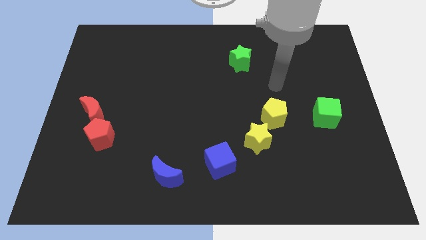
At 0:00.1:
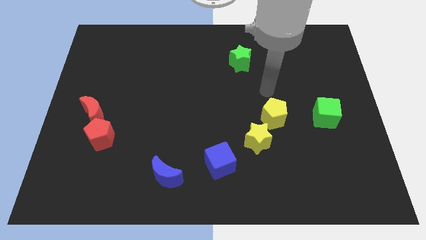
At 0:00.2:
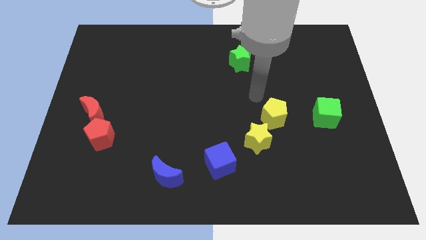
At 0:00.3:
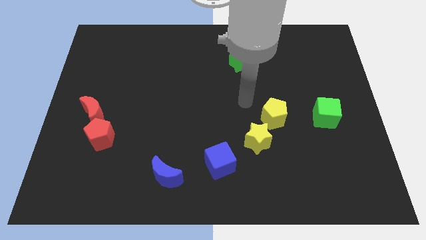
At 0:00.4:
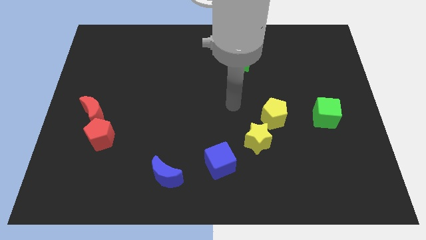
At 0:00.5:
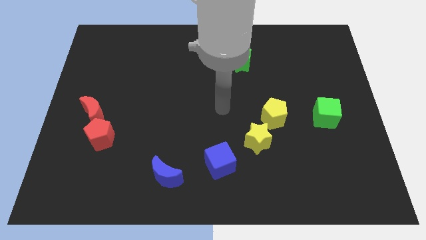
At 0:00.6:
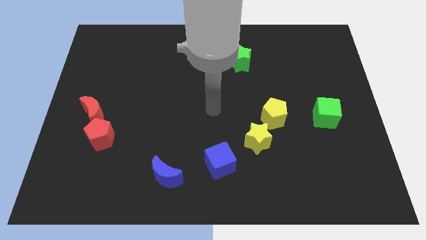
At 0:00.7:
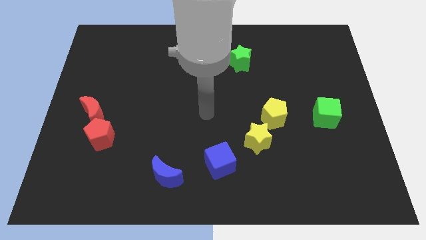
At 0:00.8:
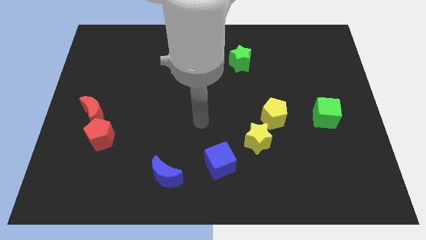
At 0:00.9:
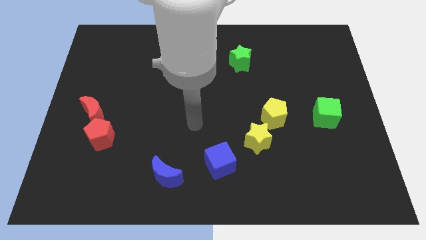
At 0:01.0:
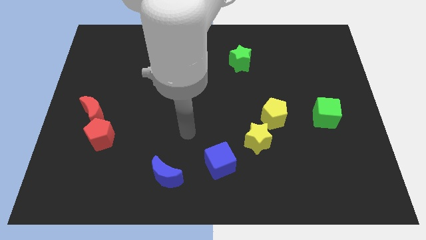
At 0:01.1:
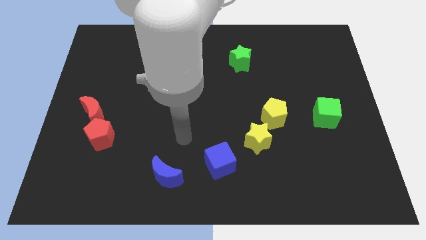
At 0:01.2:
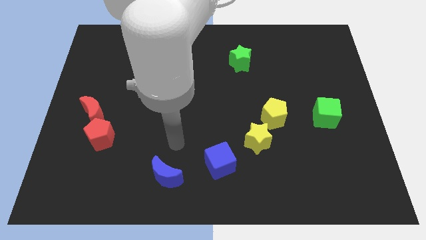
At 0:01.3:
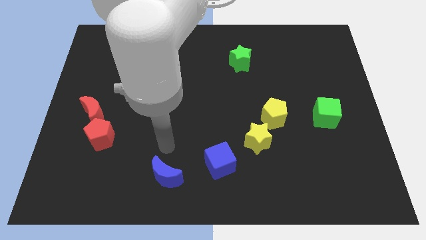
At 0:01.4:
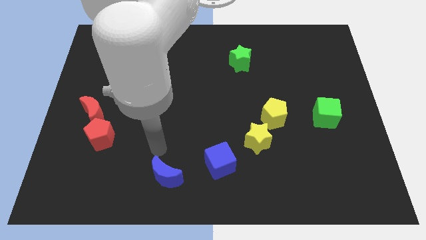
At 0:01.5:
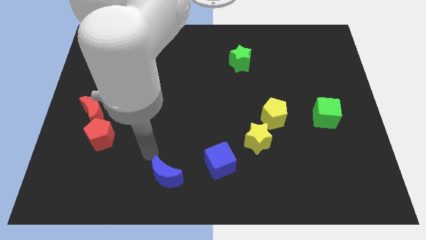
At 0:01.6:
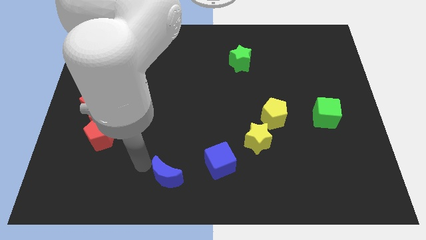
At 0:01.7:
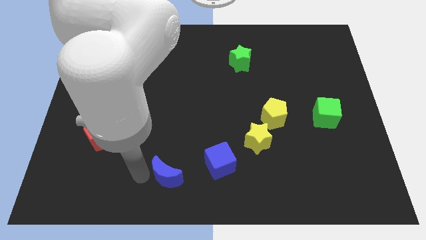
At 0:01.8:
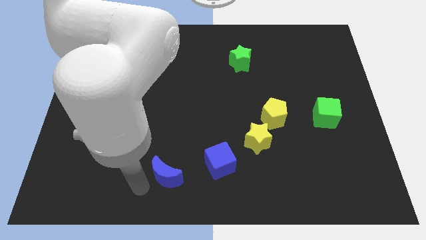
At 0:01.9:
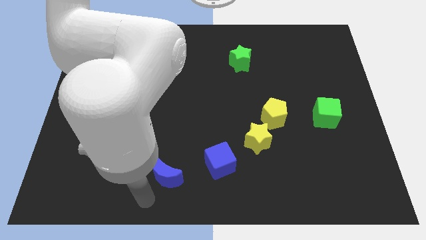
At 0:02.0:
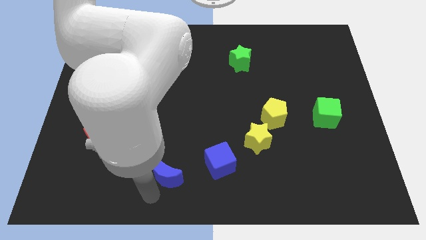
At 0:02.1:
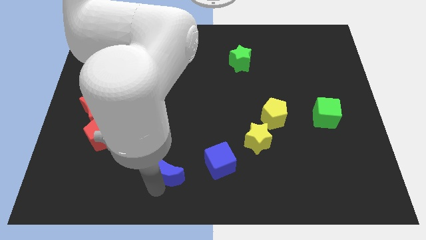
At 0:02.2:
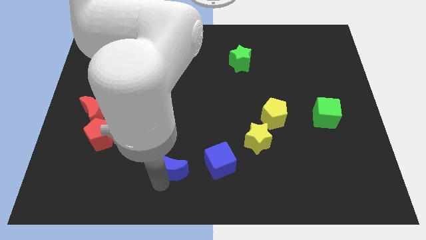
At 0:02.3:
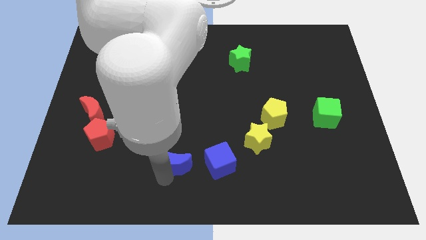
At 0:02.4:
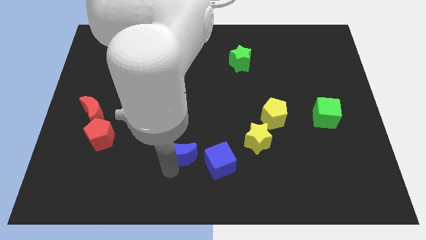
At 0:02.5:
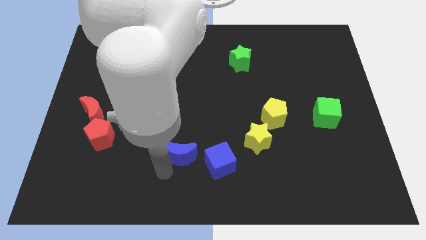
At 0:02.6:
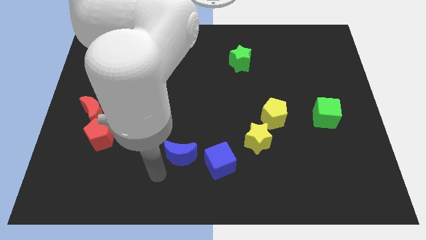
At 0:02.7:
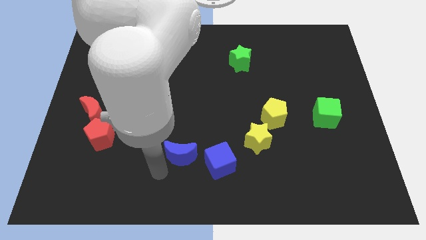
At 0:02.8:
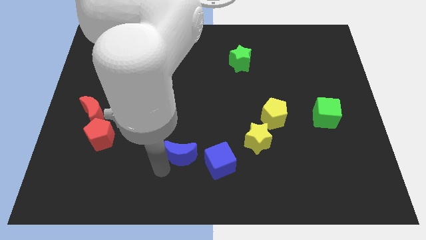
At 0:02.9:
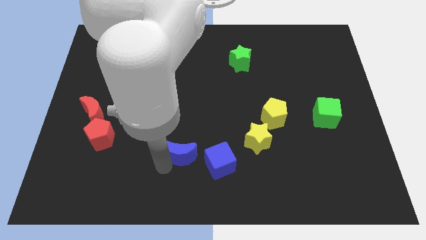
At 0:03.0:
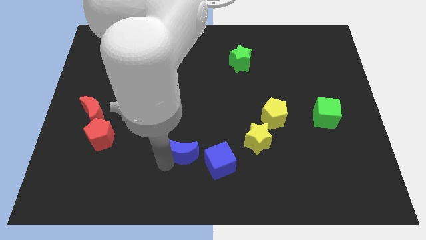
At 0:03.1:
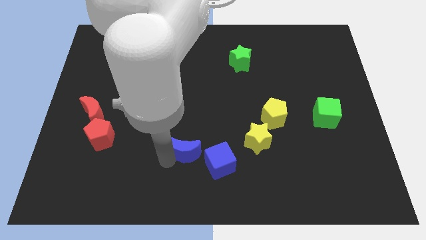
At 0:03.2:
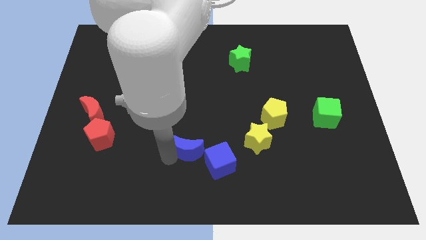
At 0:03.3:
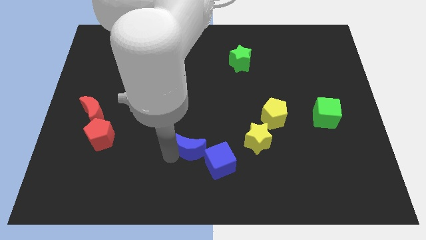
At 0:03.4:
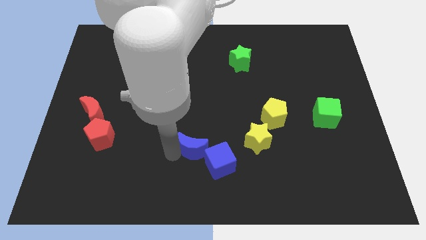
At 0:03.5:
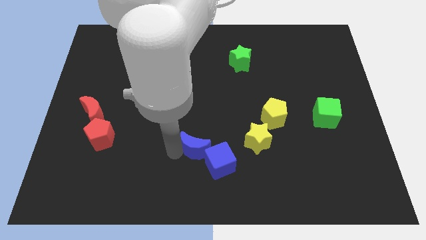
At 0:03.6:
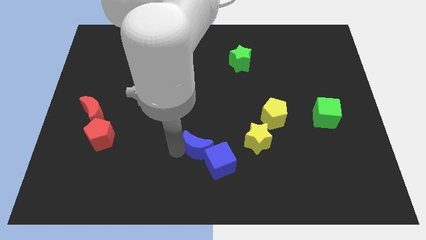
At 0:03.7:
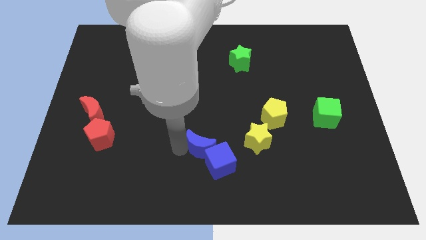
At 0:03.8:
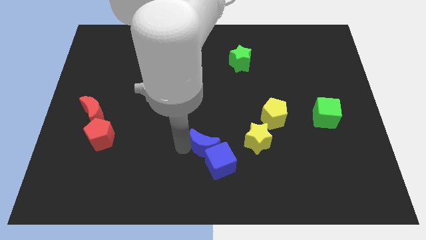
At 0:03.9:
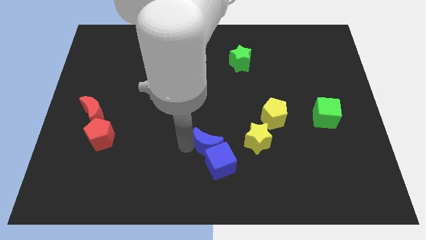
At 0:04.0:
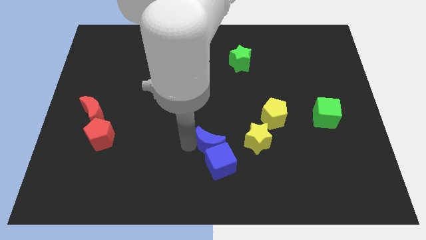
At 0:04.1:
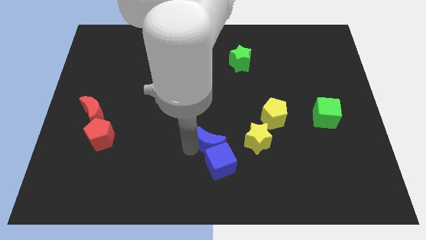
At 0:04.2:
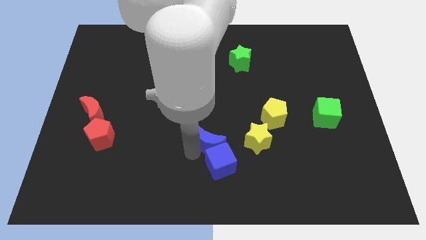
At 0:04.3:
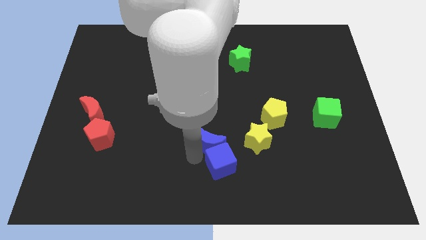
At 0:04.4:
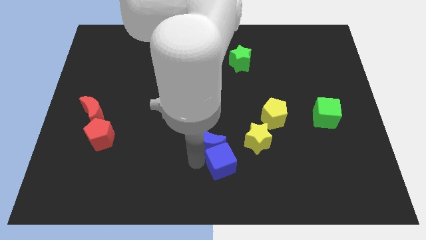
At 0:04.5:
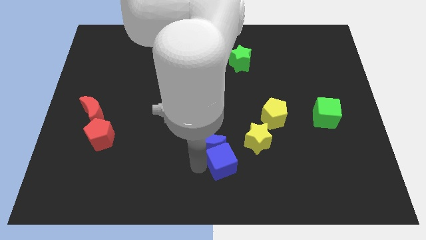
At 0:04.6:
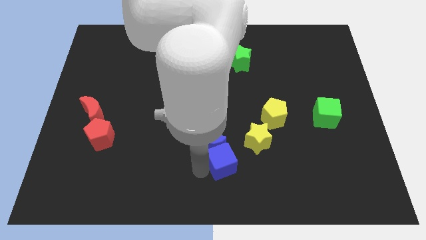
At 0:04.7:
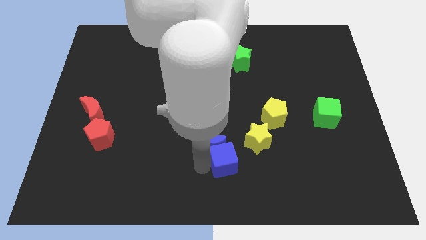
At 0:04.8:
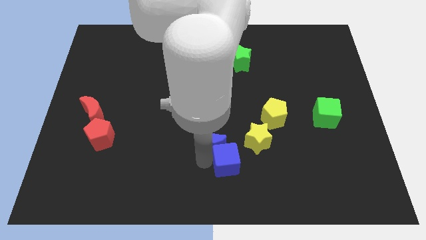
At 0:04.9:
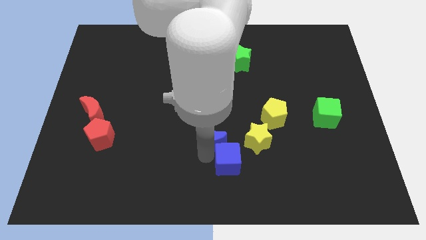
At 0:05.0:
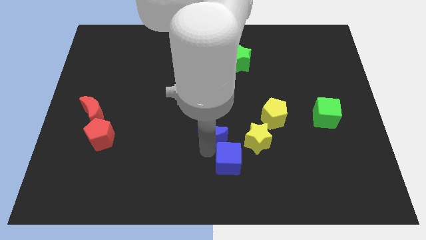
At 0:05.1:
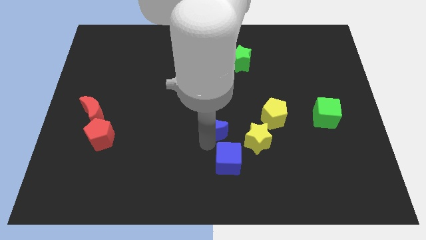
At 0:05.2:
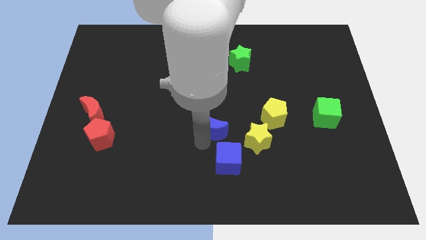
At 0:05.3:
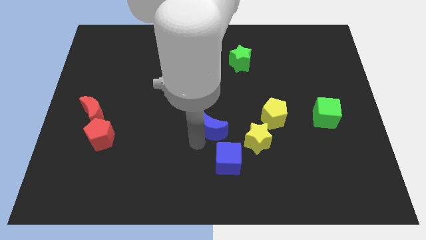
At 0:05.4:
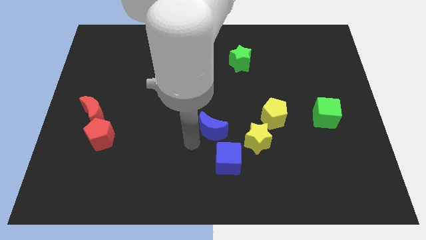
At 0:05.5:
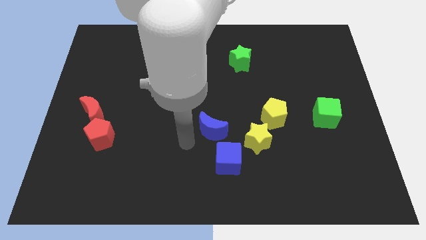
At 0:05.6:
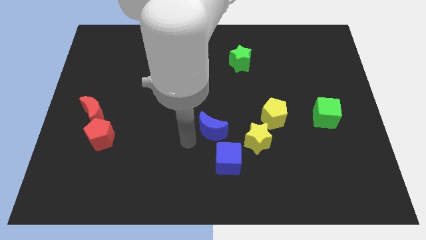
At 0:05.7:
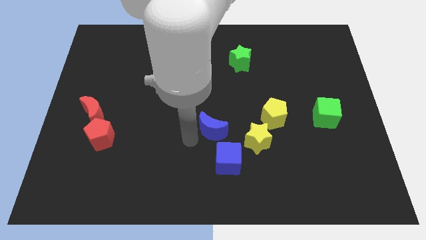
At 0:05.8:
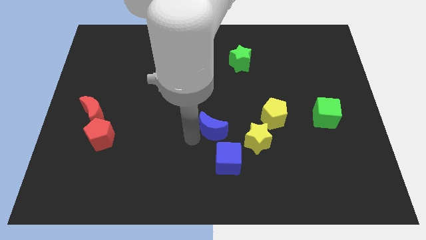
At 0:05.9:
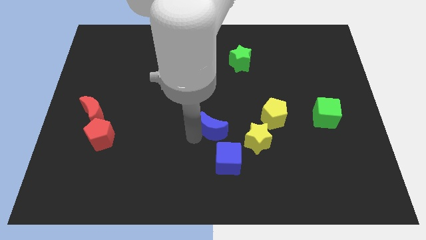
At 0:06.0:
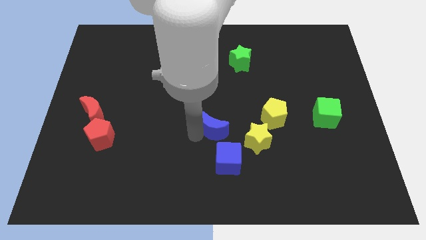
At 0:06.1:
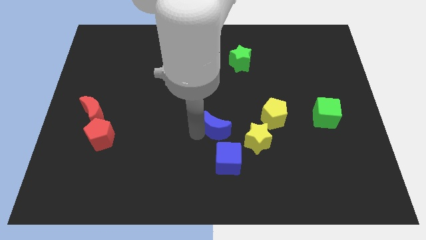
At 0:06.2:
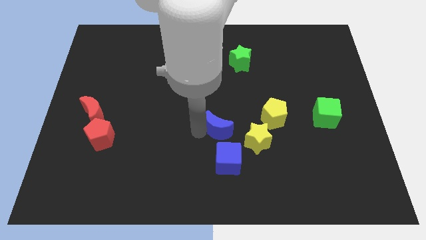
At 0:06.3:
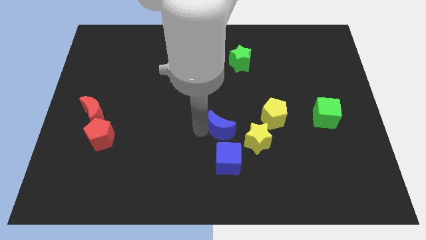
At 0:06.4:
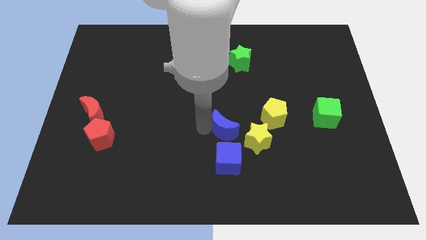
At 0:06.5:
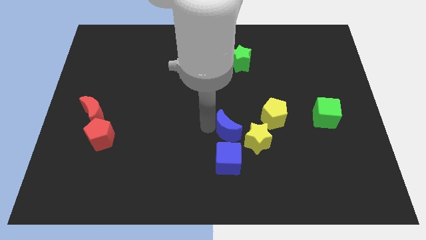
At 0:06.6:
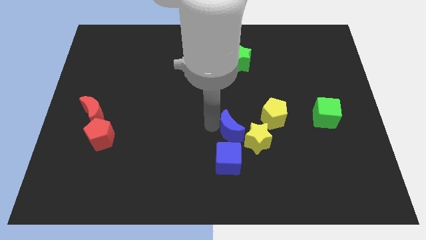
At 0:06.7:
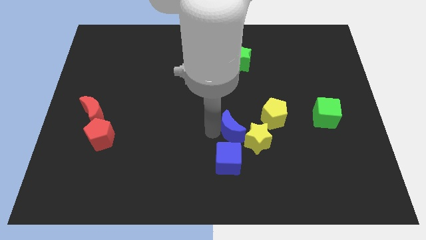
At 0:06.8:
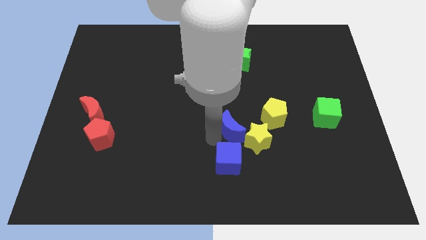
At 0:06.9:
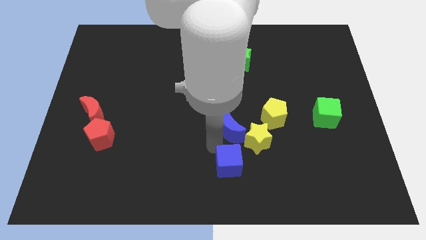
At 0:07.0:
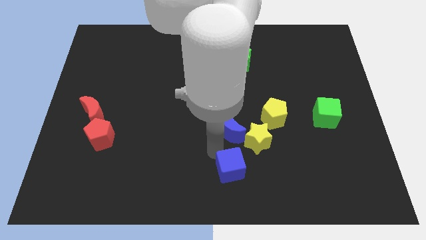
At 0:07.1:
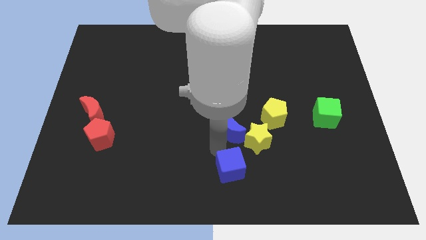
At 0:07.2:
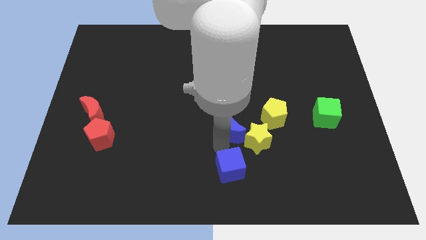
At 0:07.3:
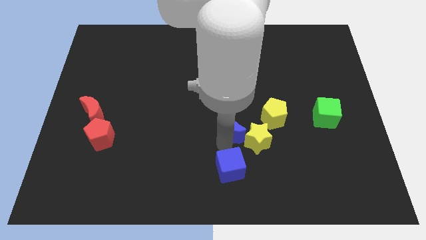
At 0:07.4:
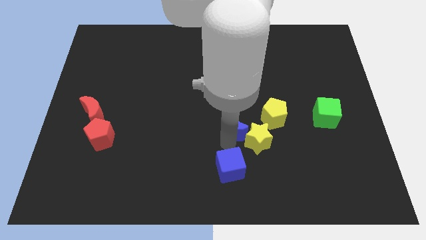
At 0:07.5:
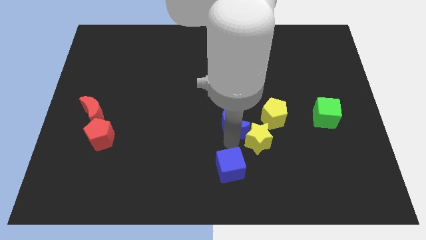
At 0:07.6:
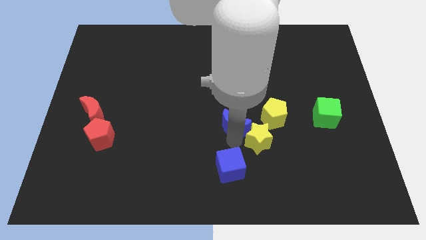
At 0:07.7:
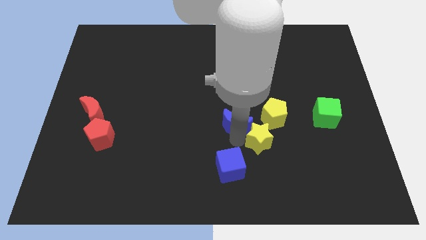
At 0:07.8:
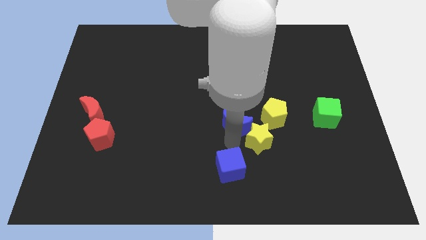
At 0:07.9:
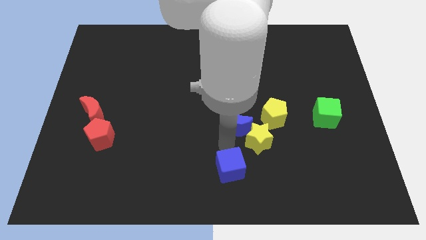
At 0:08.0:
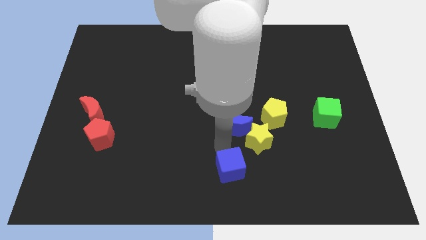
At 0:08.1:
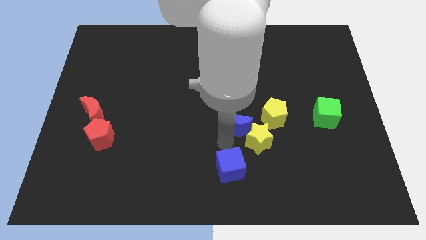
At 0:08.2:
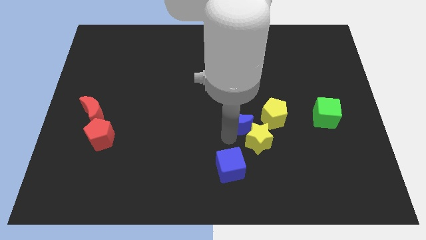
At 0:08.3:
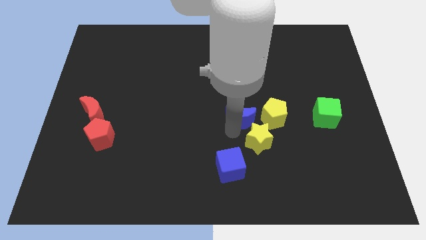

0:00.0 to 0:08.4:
move the blue moon upwards and right
